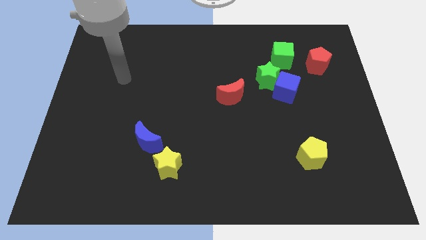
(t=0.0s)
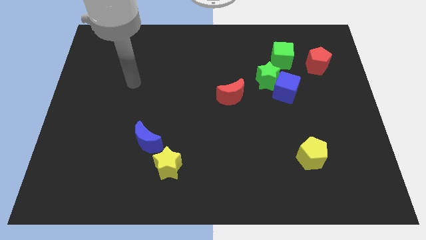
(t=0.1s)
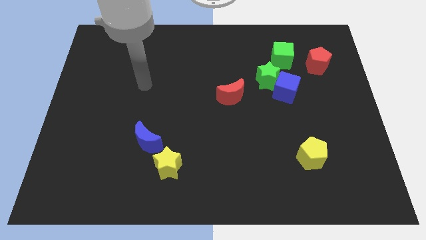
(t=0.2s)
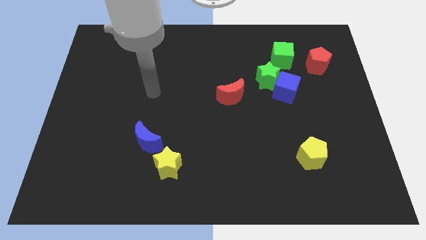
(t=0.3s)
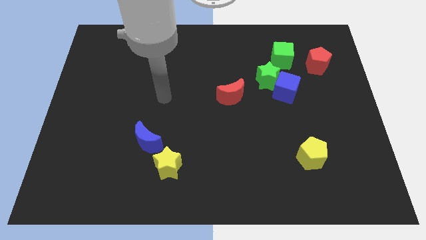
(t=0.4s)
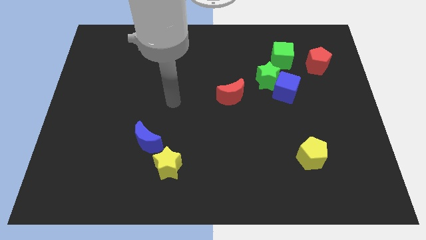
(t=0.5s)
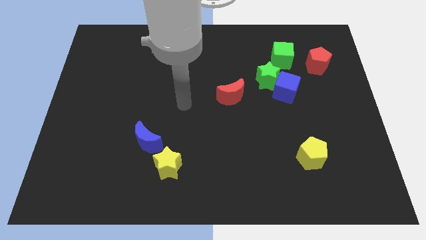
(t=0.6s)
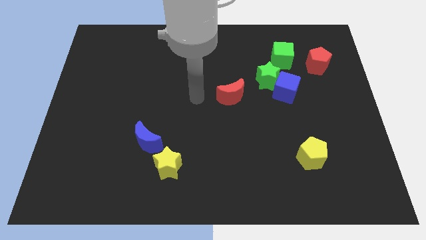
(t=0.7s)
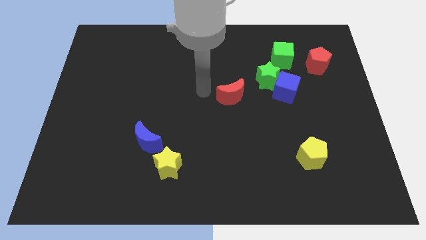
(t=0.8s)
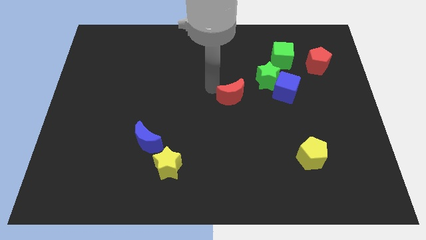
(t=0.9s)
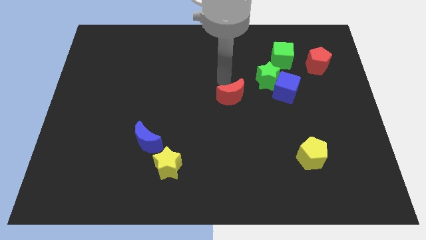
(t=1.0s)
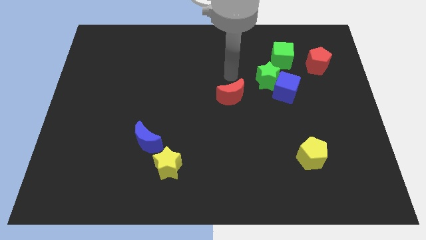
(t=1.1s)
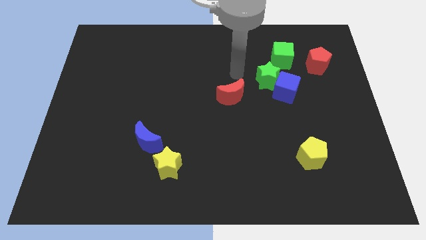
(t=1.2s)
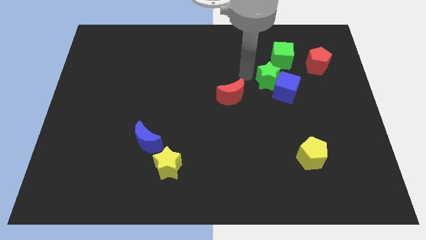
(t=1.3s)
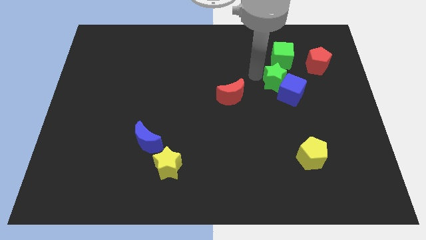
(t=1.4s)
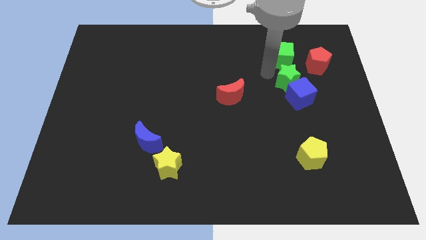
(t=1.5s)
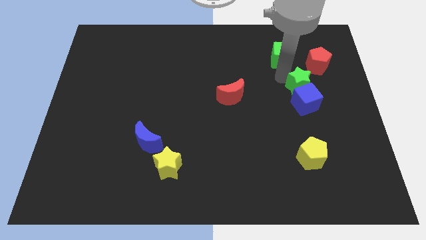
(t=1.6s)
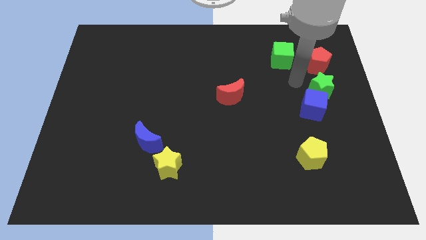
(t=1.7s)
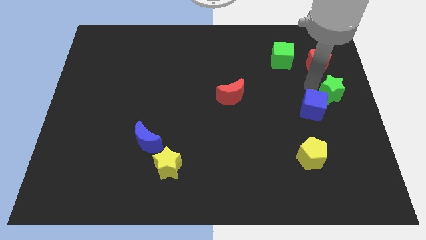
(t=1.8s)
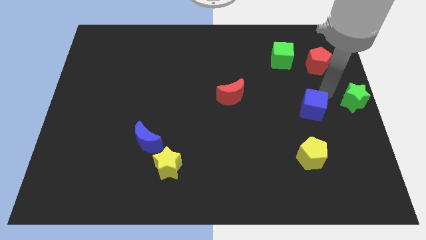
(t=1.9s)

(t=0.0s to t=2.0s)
move the blue cube away from the green star

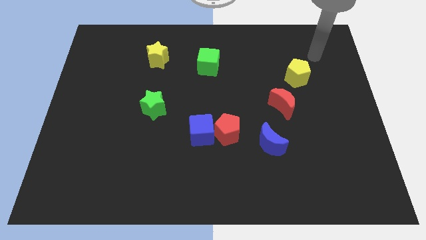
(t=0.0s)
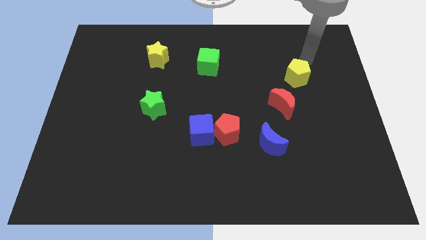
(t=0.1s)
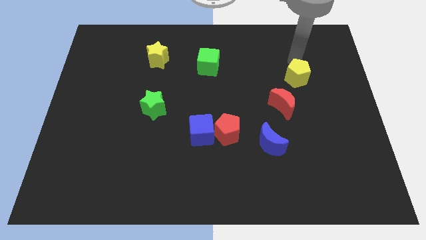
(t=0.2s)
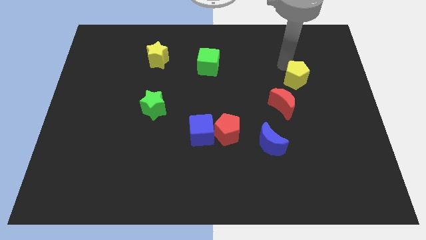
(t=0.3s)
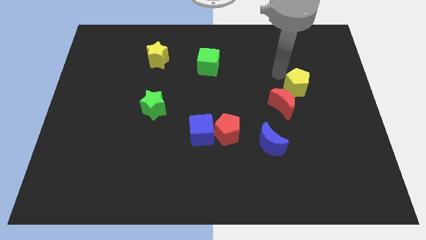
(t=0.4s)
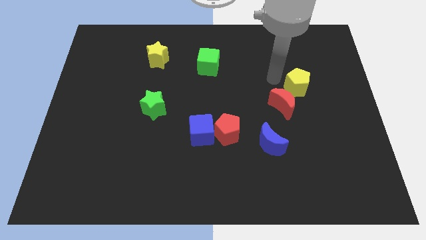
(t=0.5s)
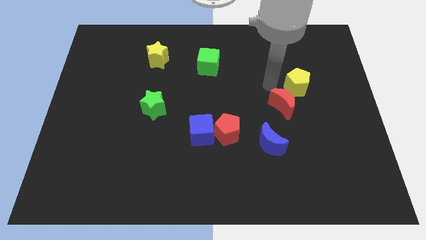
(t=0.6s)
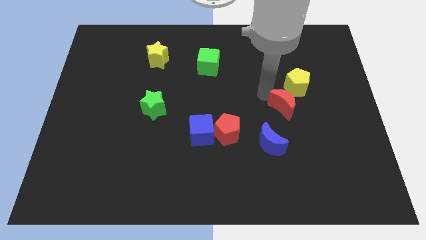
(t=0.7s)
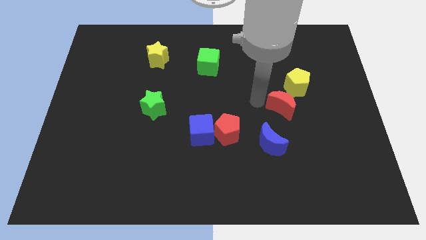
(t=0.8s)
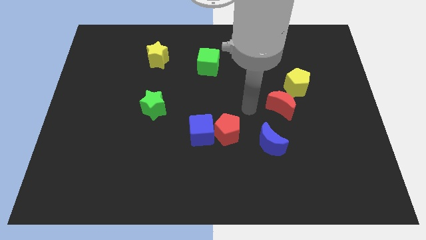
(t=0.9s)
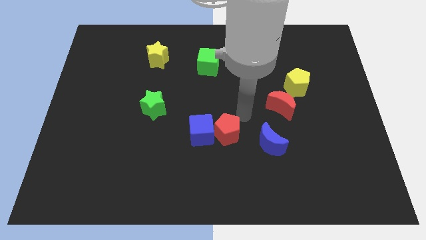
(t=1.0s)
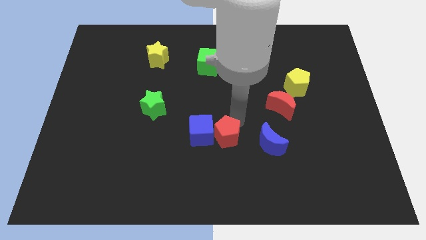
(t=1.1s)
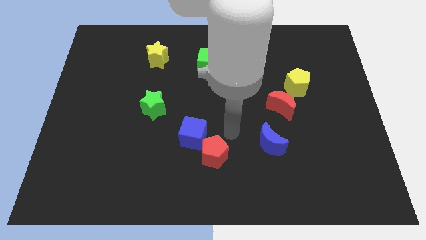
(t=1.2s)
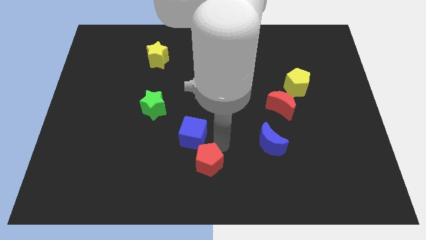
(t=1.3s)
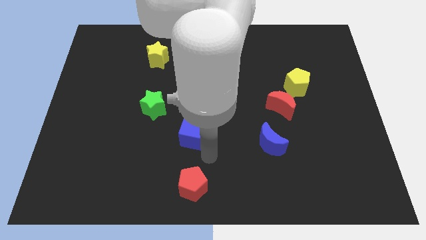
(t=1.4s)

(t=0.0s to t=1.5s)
pull the blue cube apart from the red pentagon

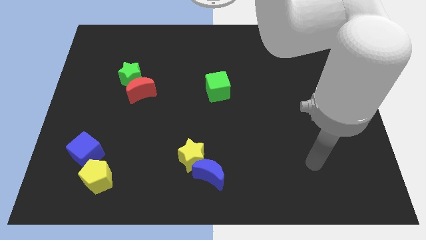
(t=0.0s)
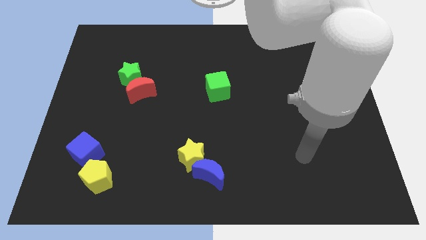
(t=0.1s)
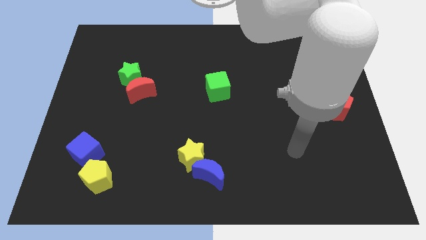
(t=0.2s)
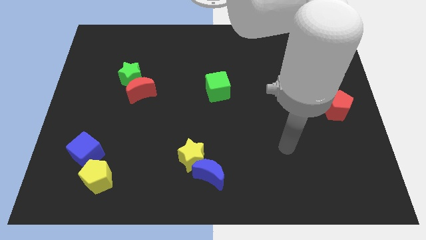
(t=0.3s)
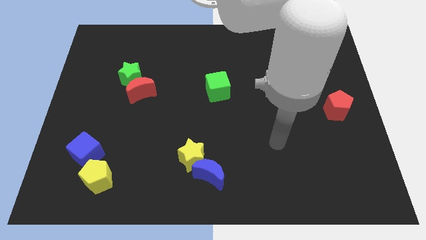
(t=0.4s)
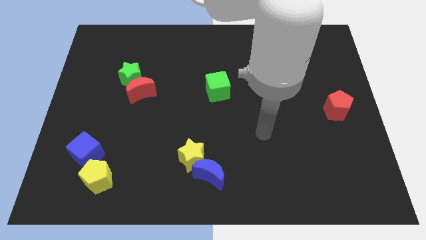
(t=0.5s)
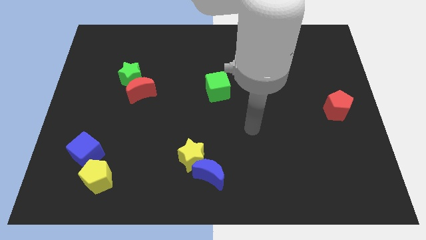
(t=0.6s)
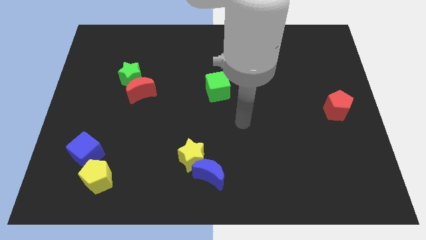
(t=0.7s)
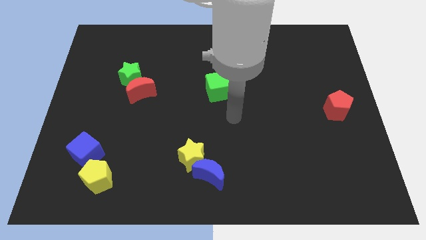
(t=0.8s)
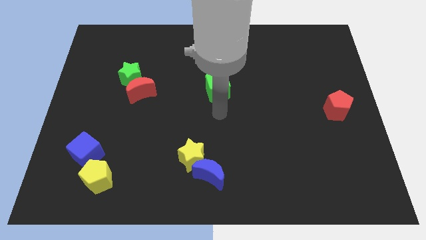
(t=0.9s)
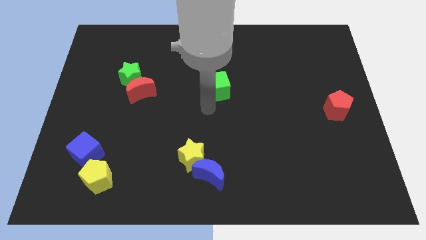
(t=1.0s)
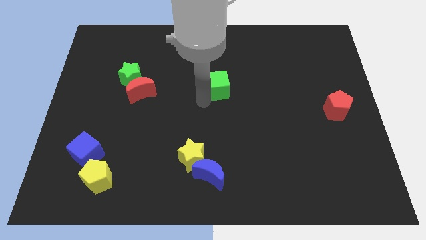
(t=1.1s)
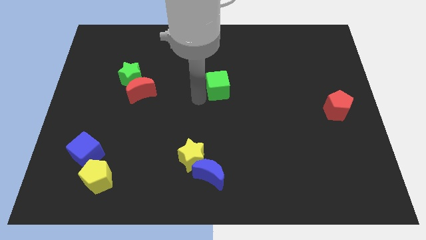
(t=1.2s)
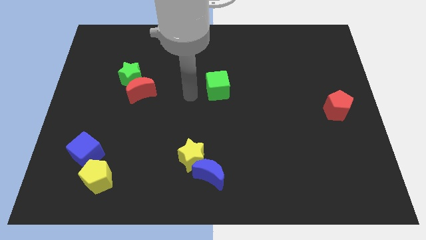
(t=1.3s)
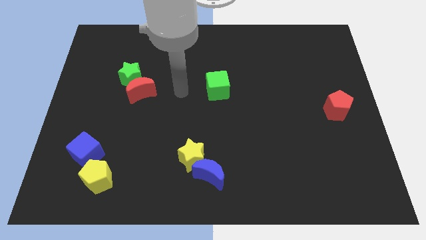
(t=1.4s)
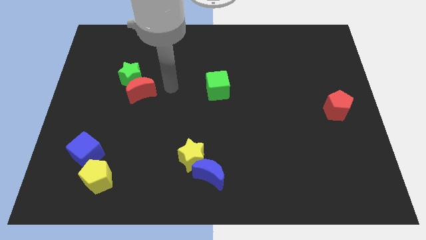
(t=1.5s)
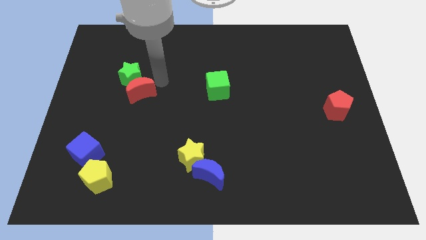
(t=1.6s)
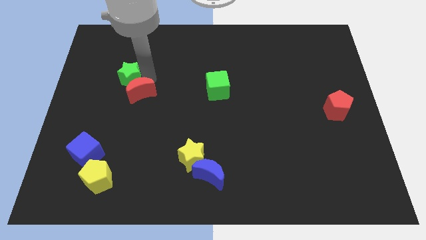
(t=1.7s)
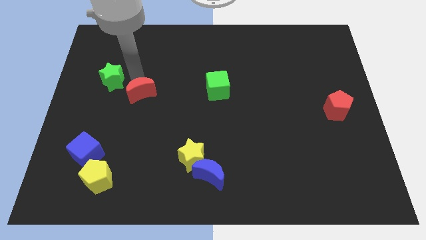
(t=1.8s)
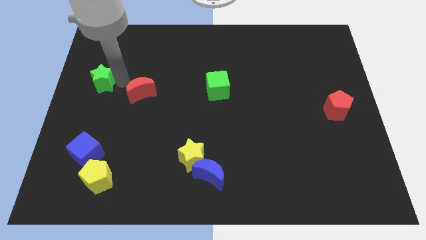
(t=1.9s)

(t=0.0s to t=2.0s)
separate the red moon from the green star

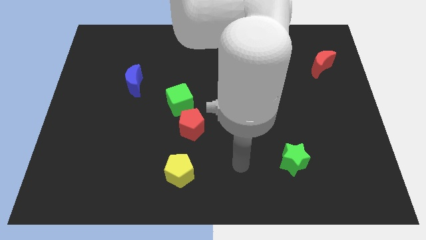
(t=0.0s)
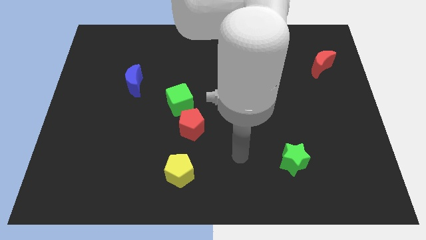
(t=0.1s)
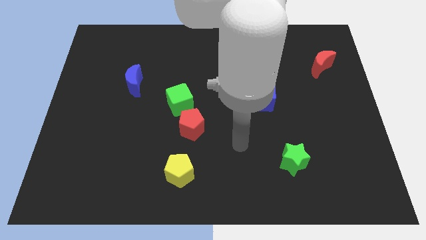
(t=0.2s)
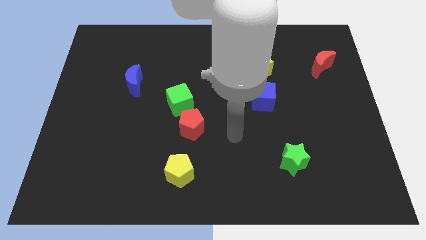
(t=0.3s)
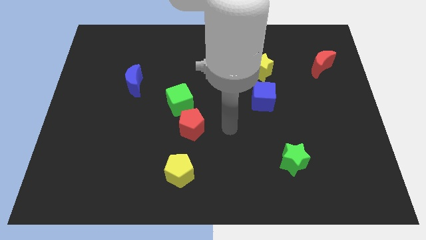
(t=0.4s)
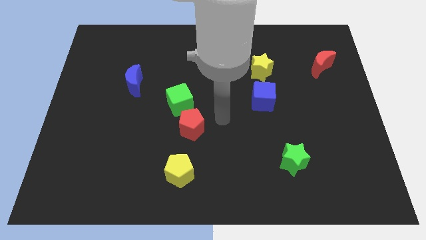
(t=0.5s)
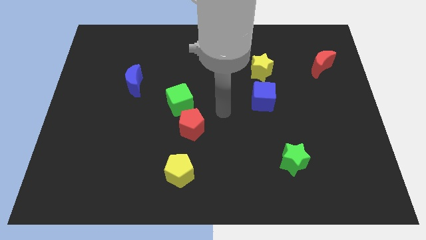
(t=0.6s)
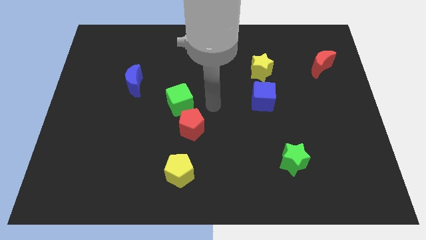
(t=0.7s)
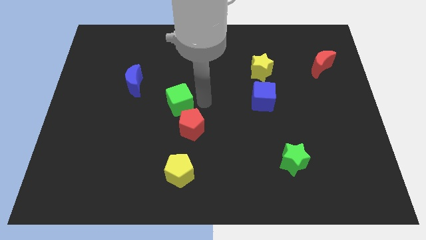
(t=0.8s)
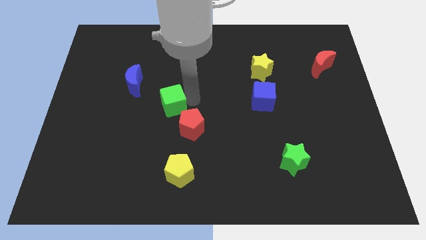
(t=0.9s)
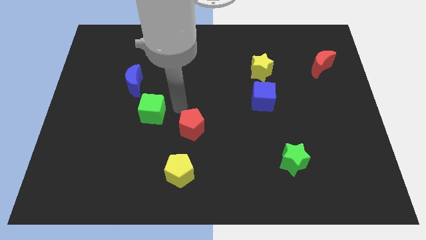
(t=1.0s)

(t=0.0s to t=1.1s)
move the red pentagon away from the green cube

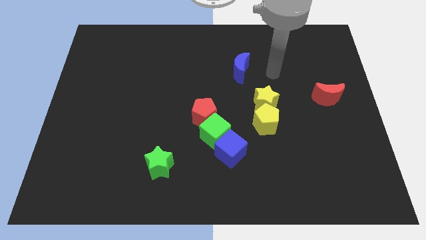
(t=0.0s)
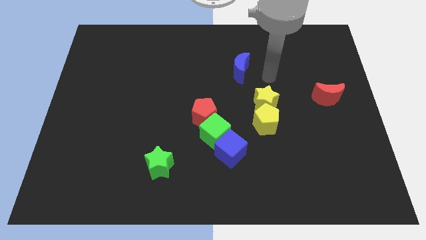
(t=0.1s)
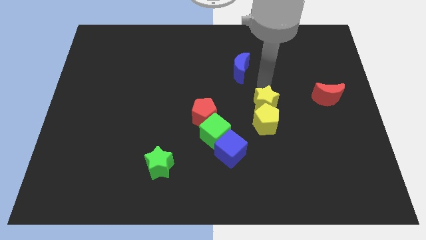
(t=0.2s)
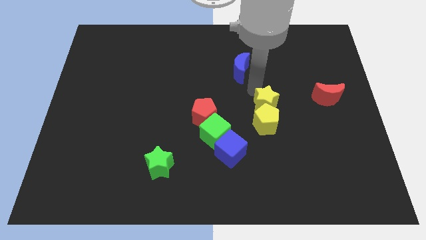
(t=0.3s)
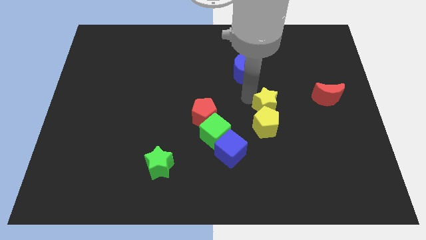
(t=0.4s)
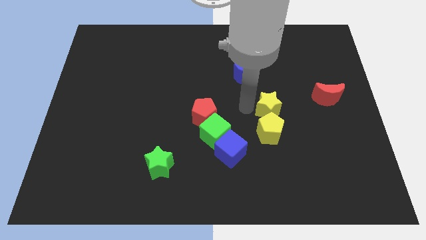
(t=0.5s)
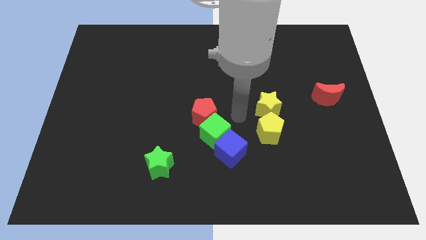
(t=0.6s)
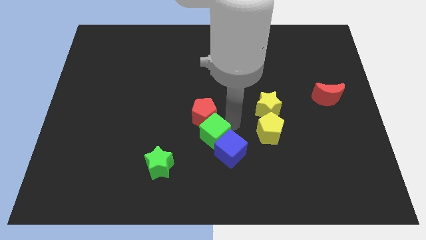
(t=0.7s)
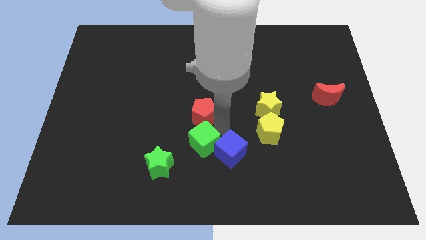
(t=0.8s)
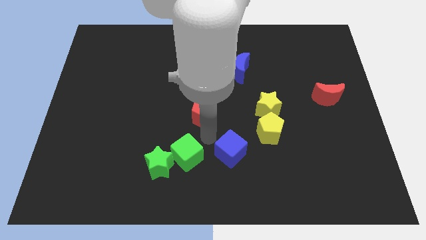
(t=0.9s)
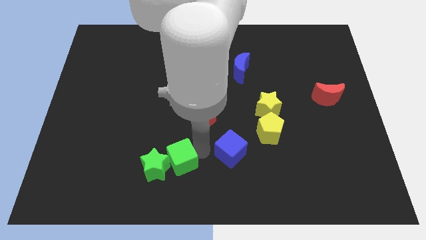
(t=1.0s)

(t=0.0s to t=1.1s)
separate the blue cube from the green cube

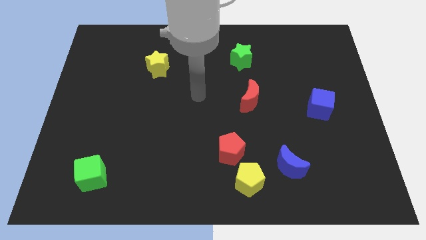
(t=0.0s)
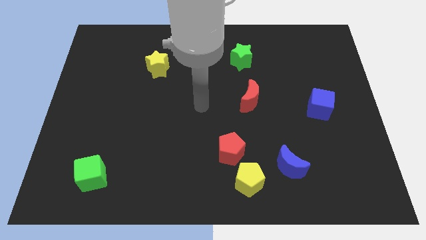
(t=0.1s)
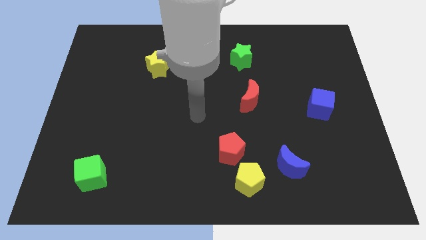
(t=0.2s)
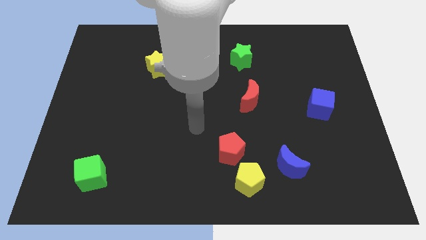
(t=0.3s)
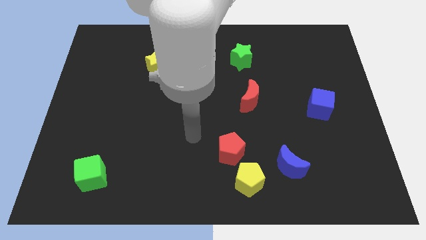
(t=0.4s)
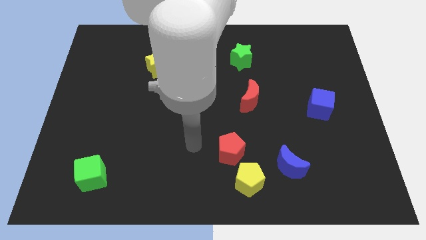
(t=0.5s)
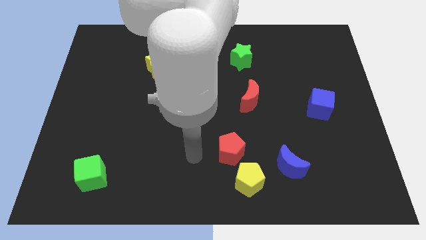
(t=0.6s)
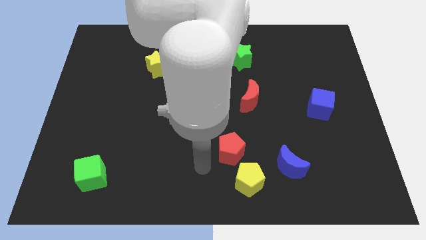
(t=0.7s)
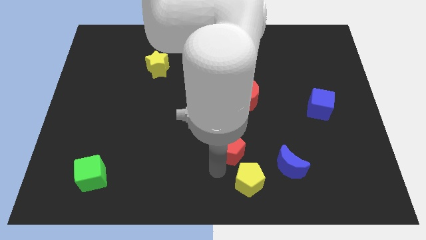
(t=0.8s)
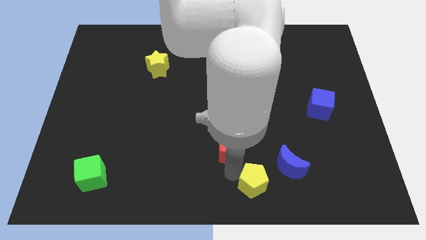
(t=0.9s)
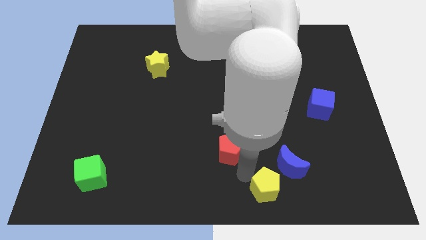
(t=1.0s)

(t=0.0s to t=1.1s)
pull the red pentagon apart from the yellow pentagon

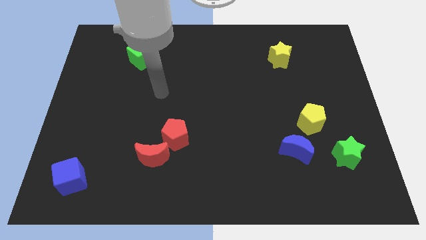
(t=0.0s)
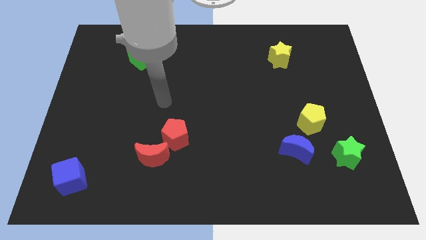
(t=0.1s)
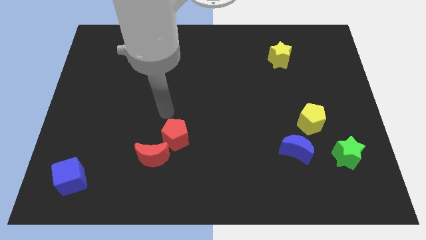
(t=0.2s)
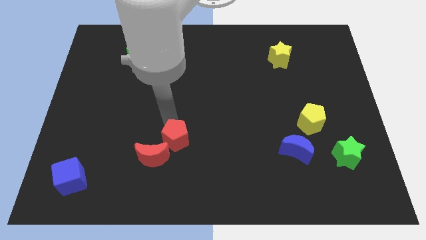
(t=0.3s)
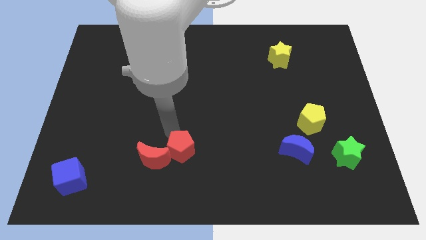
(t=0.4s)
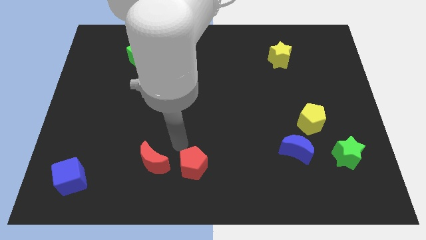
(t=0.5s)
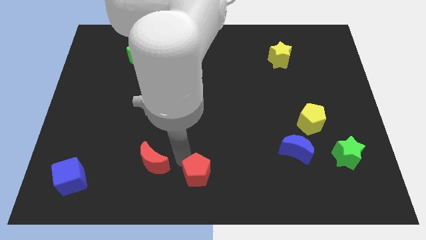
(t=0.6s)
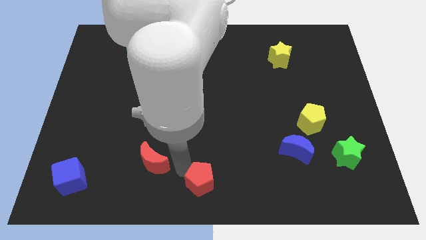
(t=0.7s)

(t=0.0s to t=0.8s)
separate the red moon from the red pentagon
